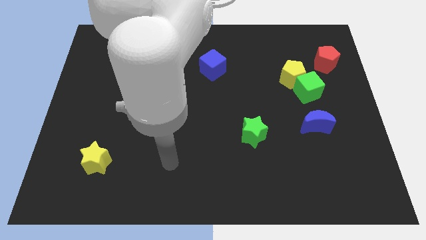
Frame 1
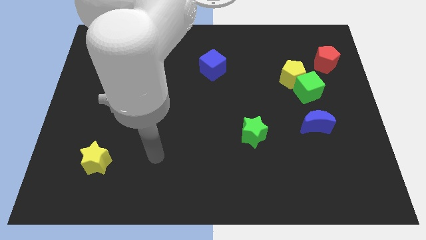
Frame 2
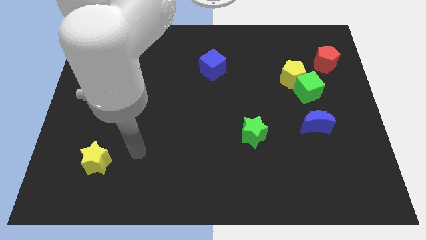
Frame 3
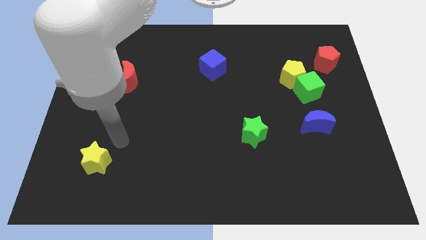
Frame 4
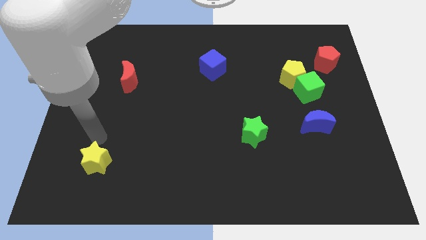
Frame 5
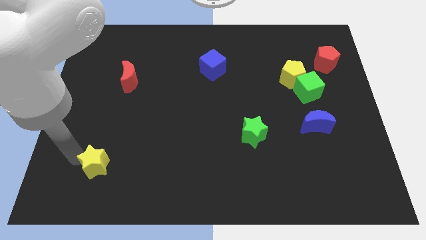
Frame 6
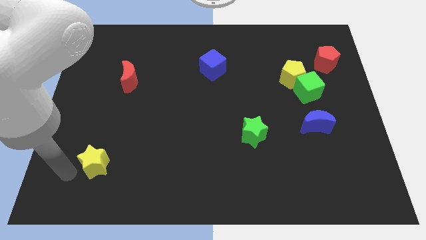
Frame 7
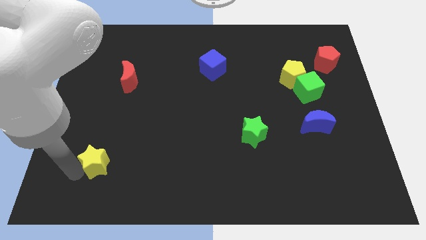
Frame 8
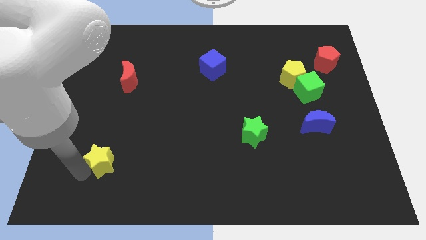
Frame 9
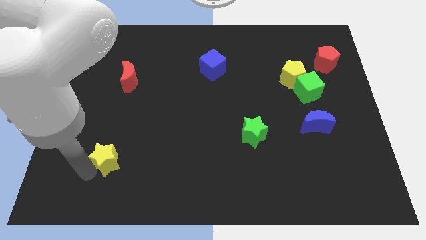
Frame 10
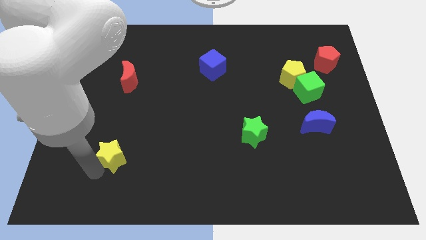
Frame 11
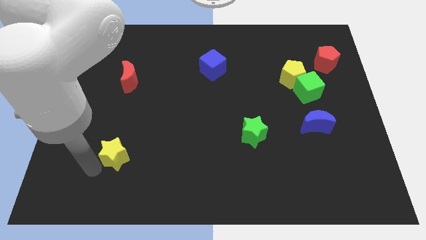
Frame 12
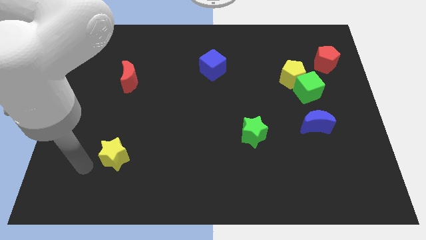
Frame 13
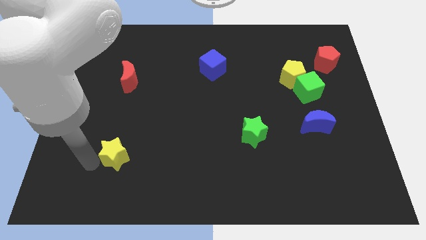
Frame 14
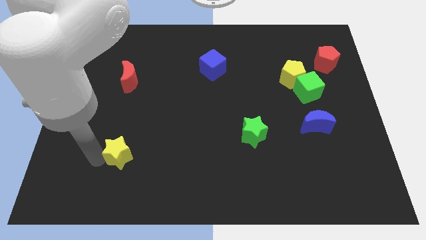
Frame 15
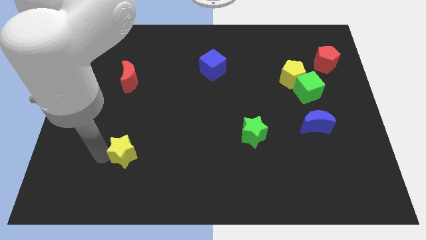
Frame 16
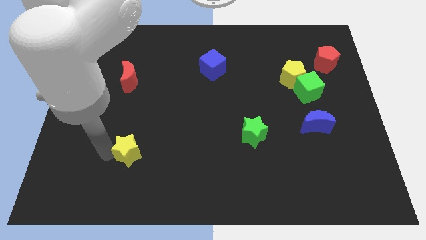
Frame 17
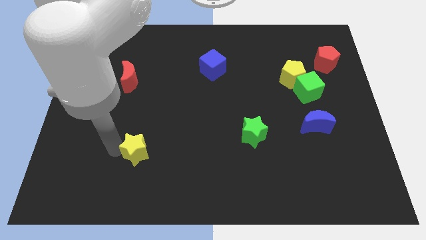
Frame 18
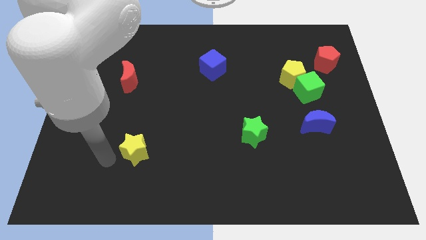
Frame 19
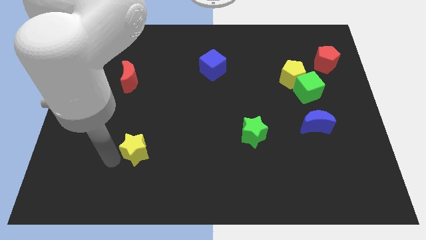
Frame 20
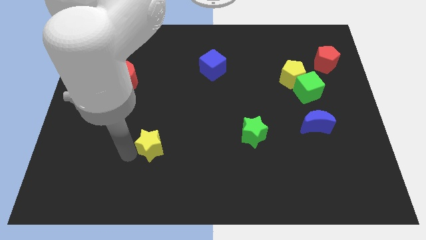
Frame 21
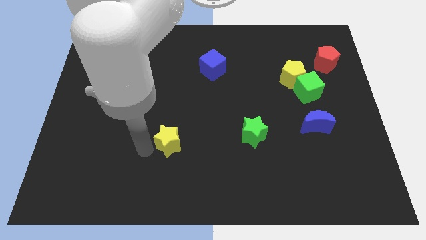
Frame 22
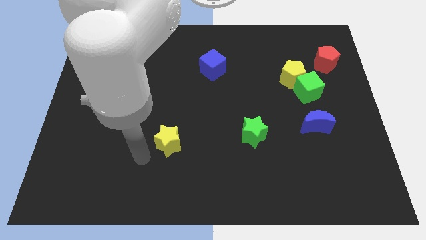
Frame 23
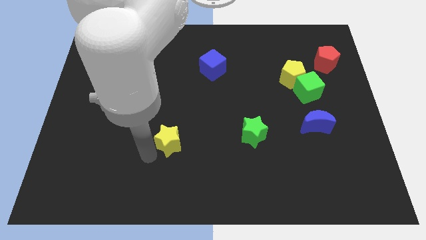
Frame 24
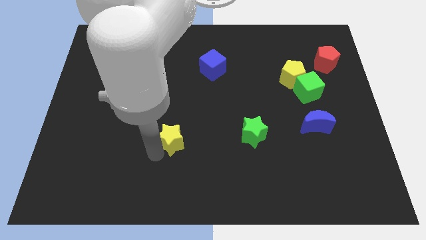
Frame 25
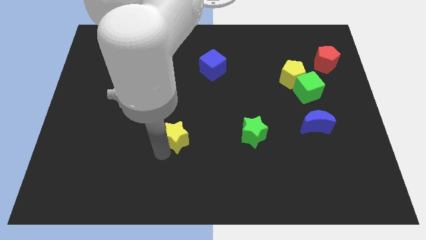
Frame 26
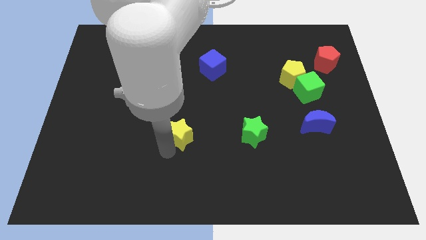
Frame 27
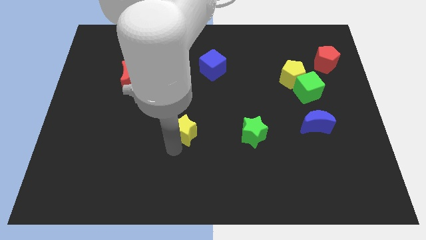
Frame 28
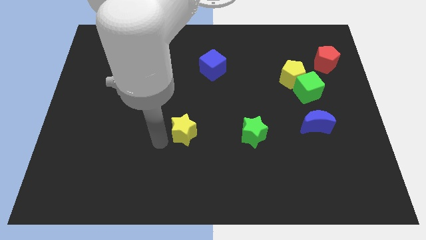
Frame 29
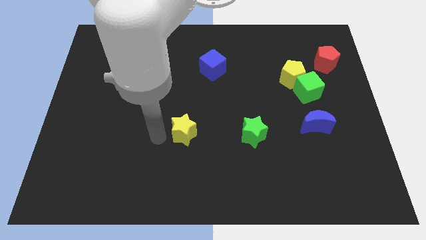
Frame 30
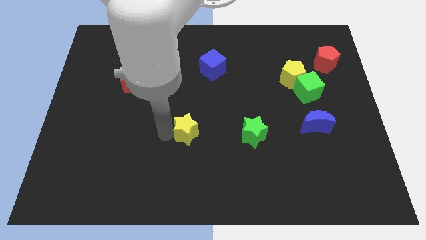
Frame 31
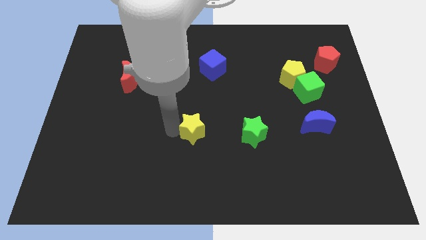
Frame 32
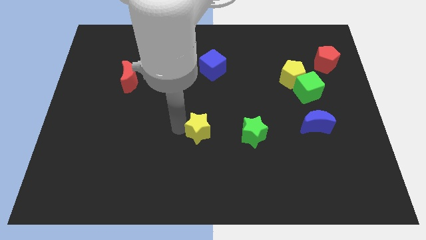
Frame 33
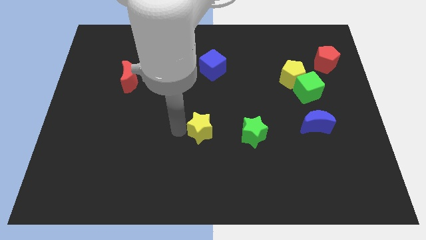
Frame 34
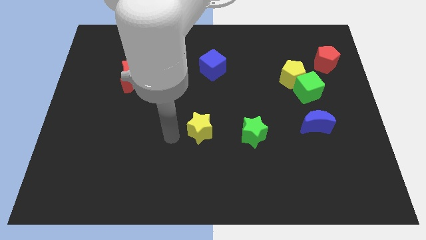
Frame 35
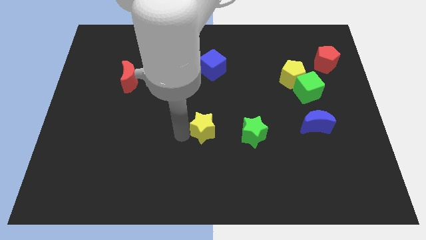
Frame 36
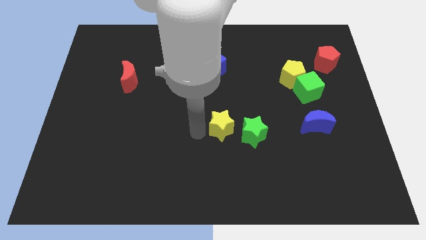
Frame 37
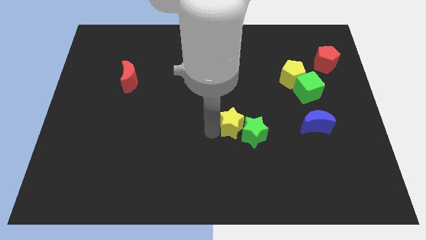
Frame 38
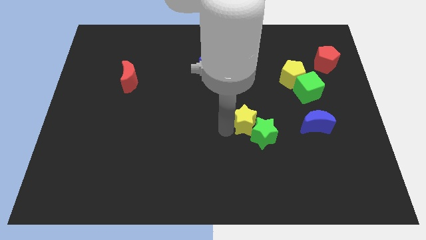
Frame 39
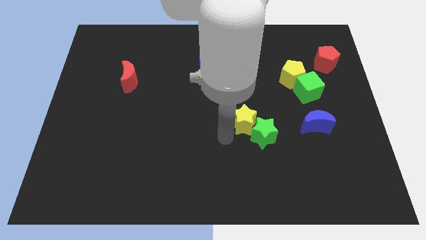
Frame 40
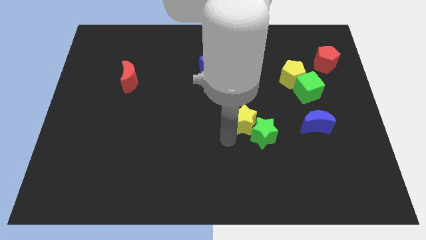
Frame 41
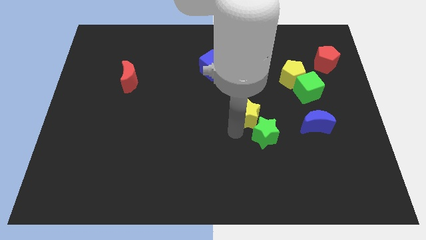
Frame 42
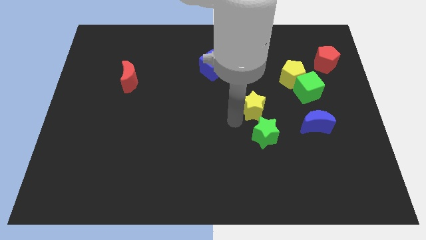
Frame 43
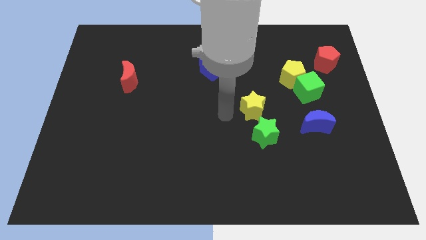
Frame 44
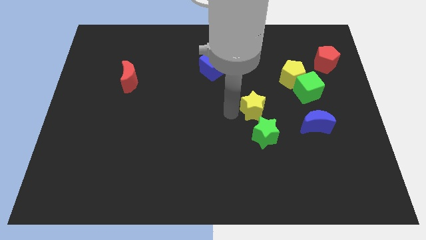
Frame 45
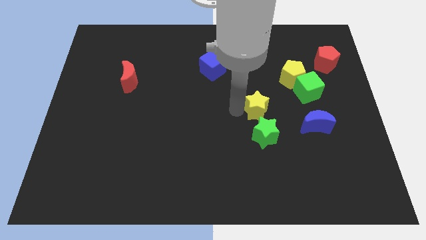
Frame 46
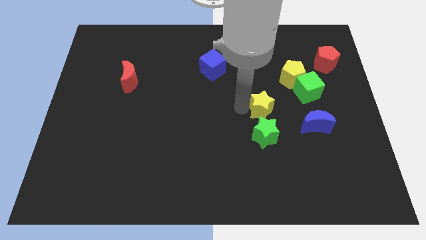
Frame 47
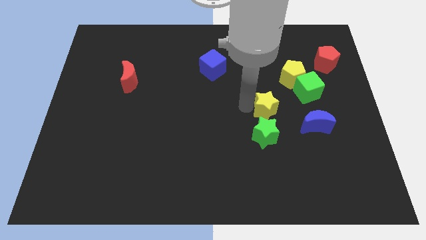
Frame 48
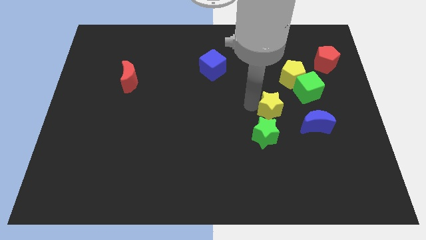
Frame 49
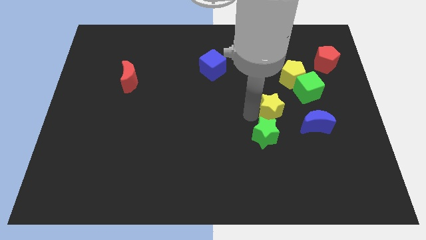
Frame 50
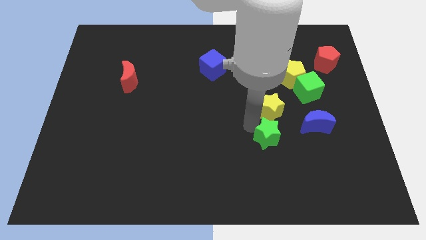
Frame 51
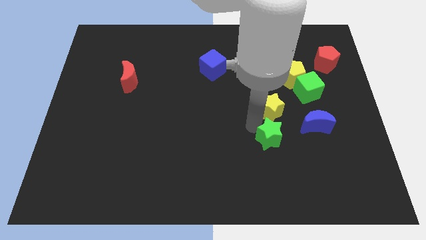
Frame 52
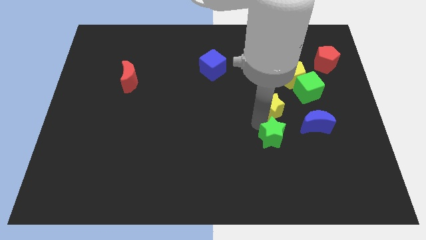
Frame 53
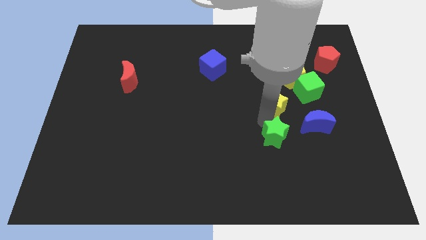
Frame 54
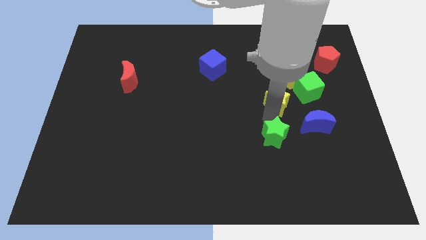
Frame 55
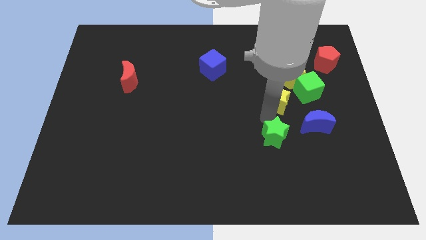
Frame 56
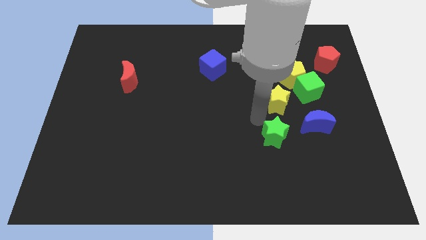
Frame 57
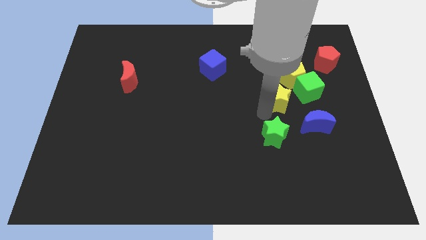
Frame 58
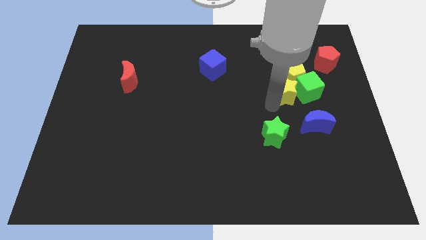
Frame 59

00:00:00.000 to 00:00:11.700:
push the yellow star towards the green cube

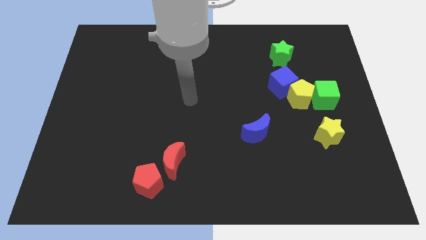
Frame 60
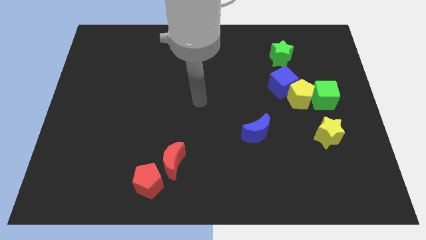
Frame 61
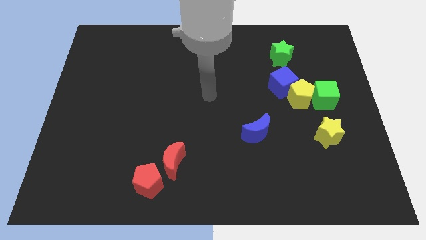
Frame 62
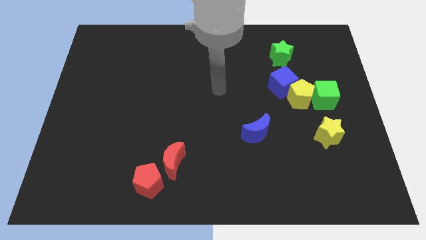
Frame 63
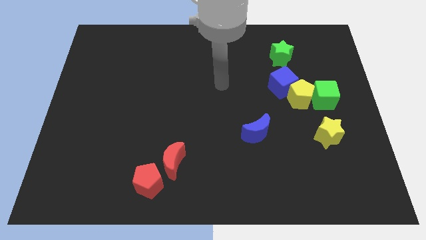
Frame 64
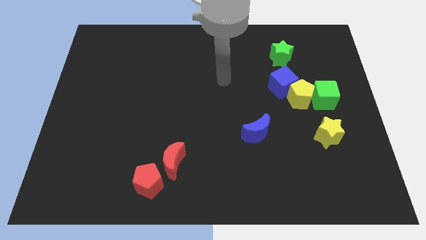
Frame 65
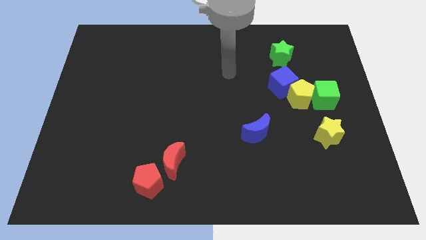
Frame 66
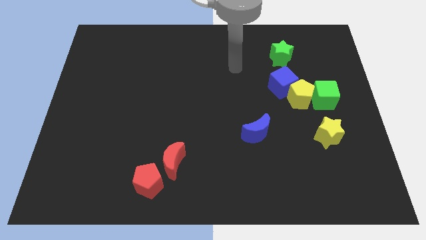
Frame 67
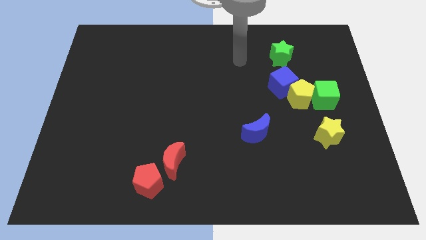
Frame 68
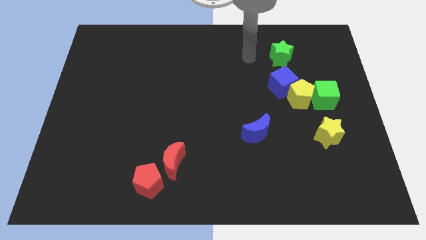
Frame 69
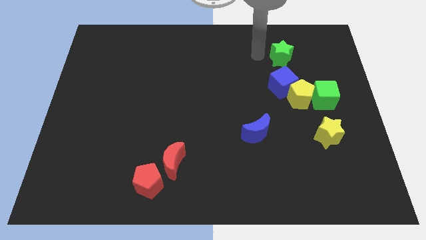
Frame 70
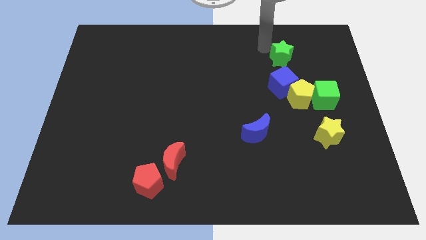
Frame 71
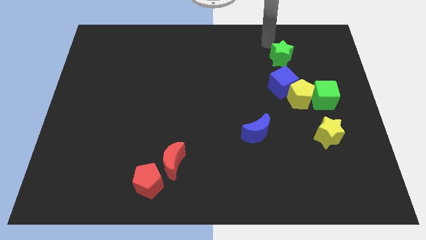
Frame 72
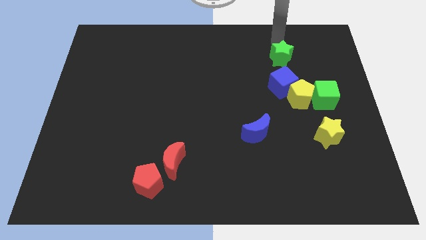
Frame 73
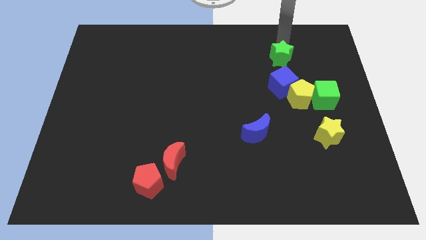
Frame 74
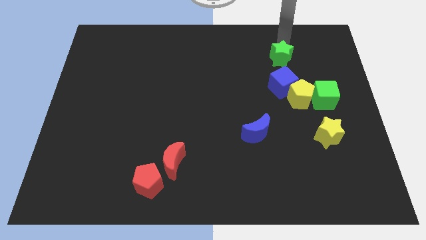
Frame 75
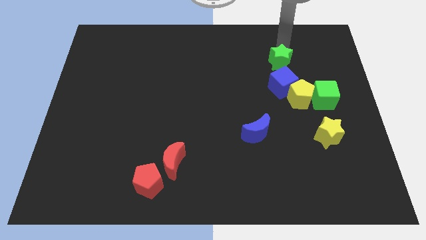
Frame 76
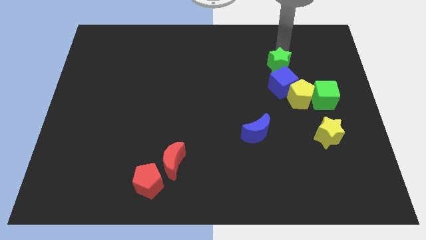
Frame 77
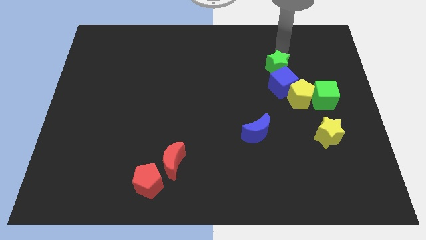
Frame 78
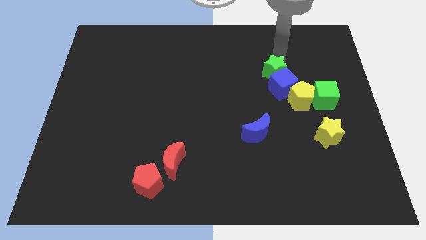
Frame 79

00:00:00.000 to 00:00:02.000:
slide the green star close to the blue cube
